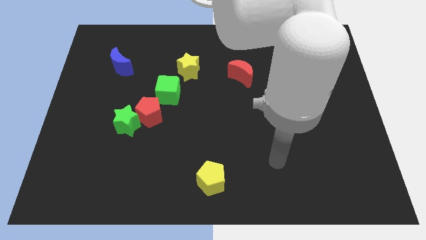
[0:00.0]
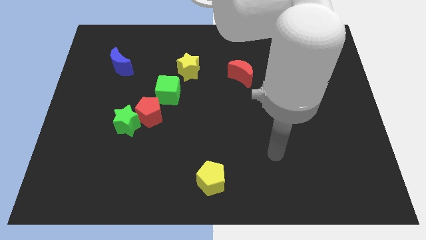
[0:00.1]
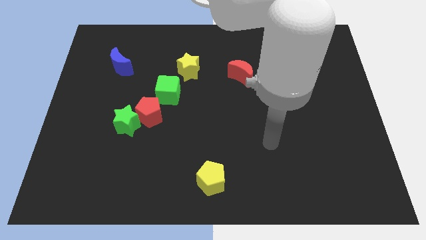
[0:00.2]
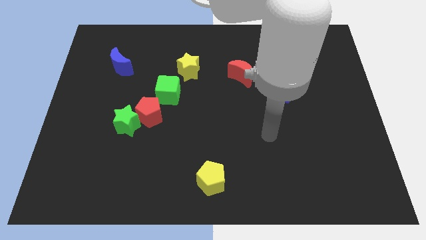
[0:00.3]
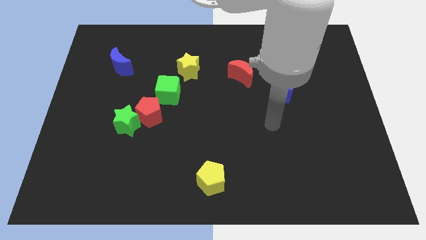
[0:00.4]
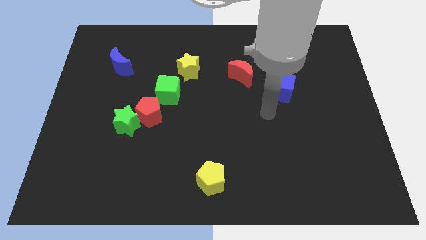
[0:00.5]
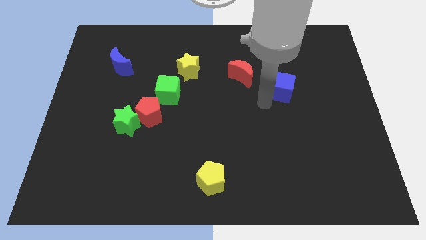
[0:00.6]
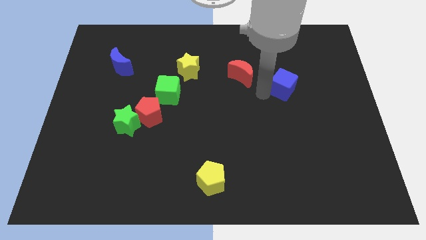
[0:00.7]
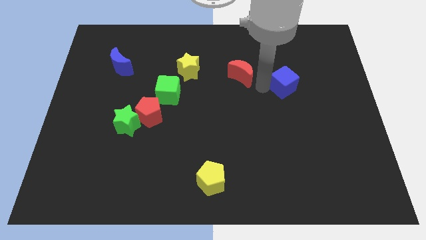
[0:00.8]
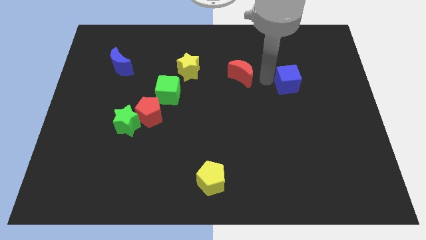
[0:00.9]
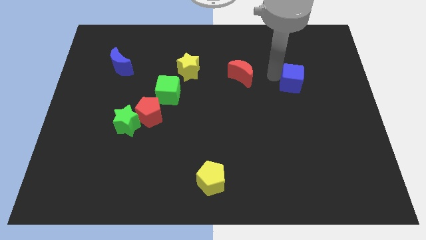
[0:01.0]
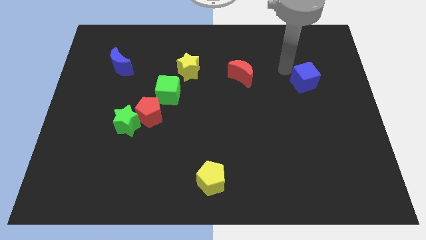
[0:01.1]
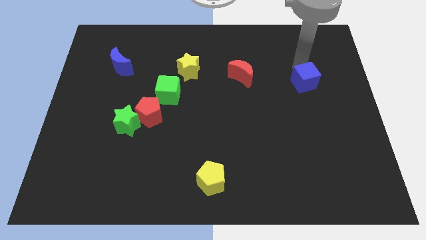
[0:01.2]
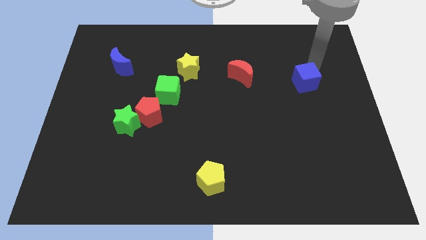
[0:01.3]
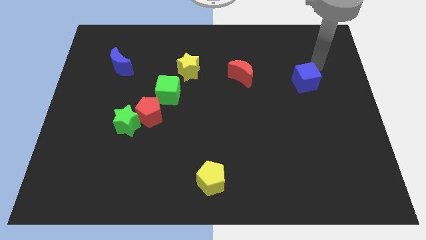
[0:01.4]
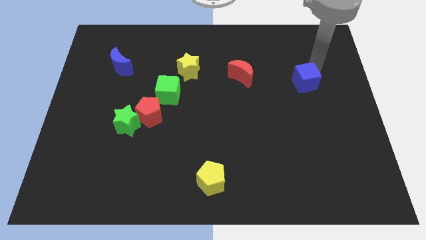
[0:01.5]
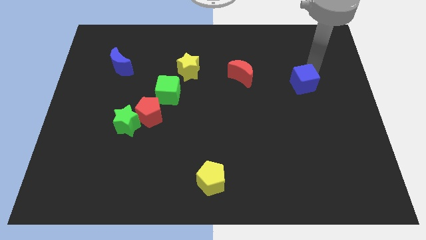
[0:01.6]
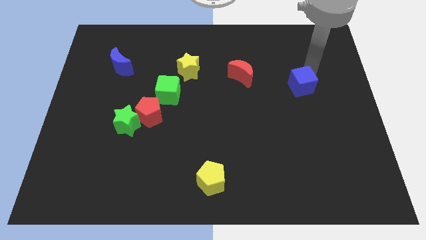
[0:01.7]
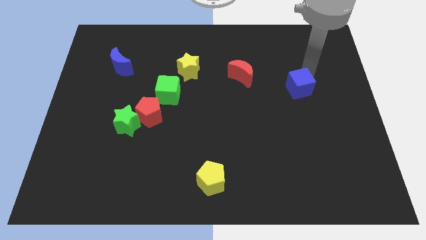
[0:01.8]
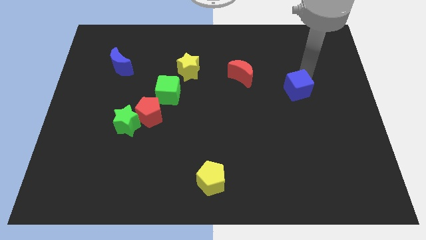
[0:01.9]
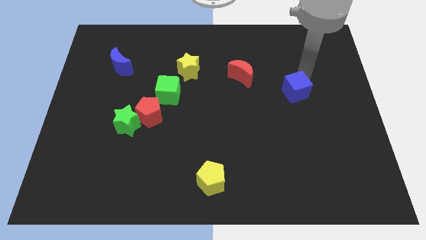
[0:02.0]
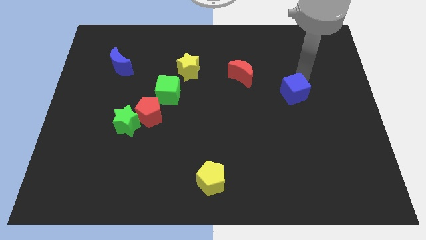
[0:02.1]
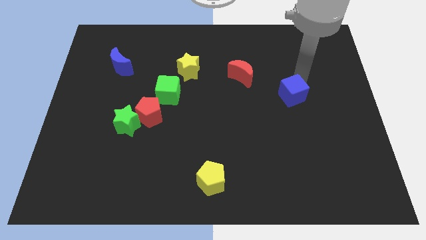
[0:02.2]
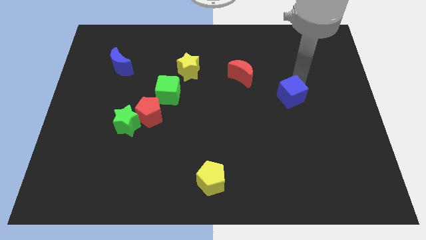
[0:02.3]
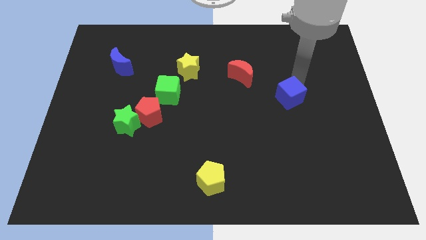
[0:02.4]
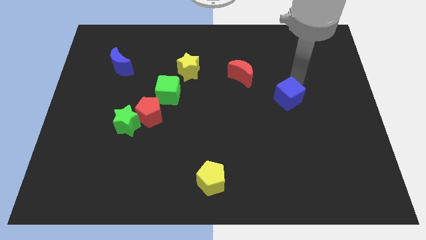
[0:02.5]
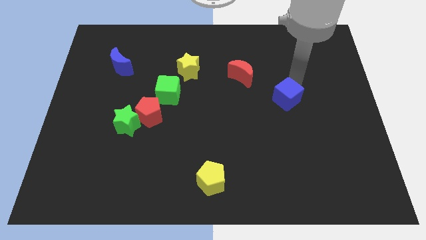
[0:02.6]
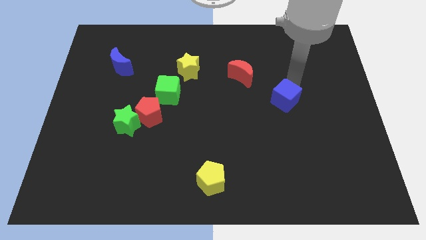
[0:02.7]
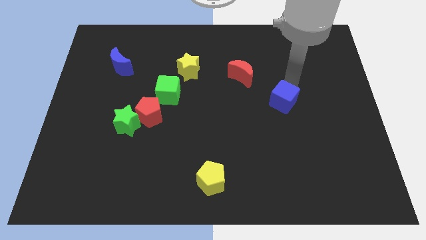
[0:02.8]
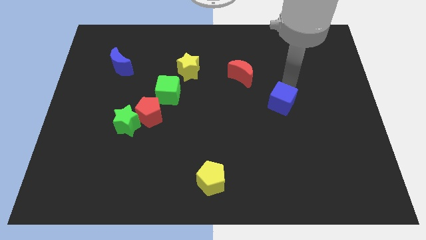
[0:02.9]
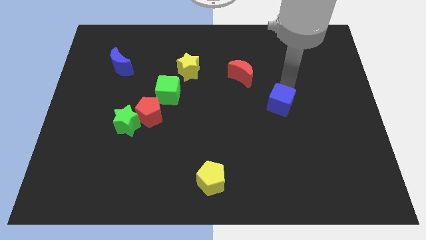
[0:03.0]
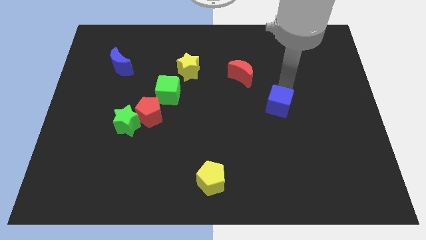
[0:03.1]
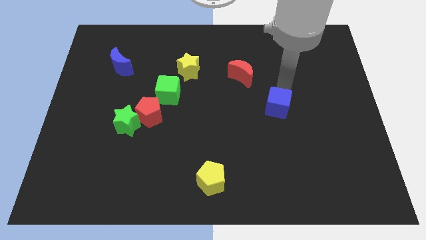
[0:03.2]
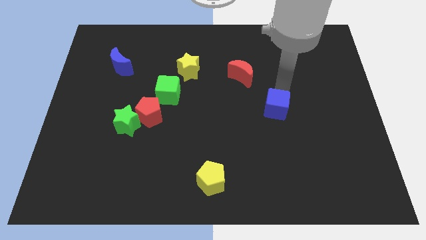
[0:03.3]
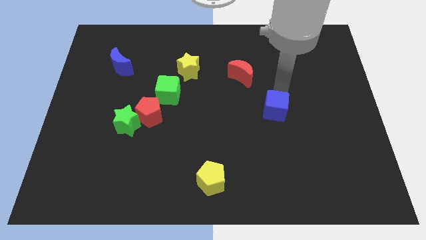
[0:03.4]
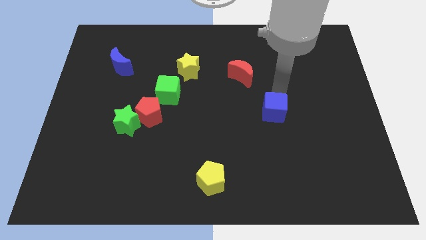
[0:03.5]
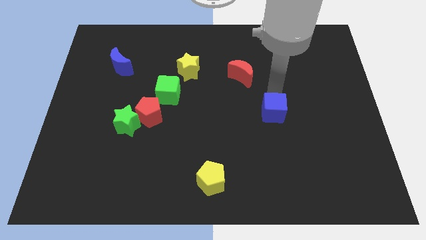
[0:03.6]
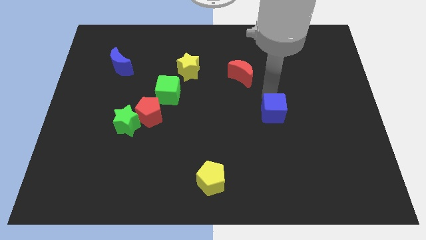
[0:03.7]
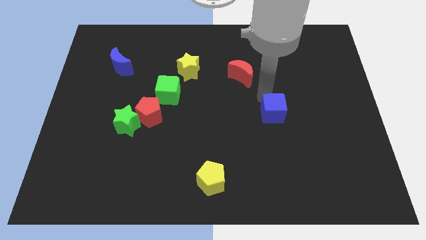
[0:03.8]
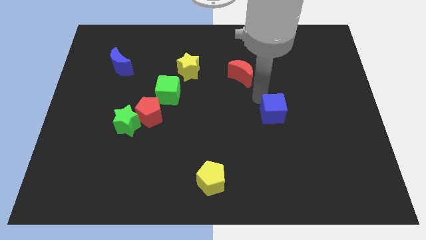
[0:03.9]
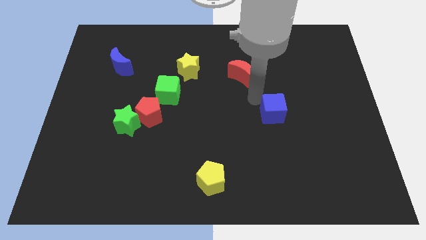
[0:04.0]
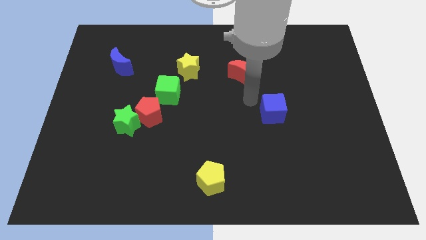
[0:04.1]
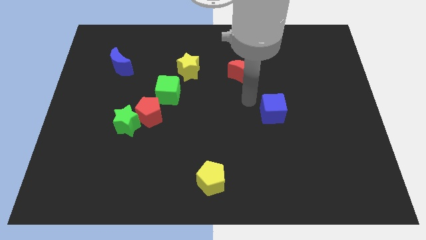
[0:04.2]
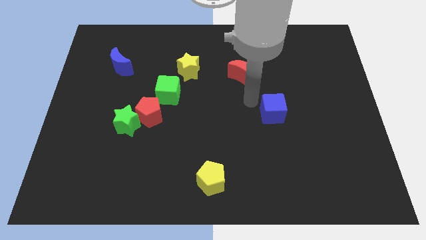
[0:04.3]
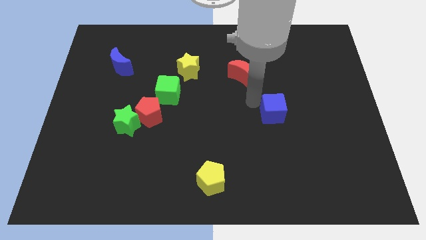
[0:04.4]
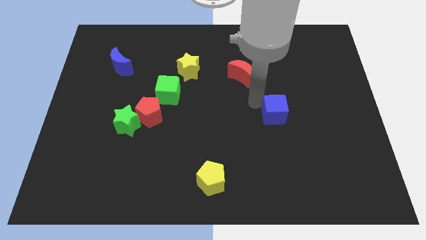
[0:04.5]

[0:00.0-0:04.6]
push the blue cube downwards a bit

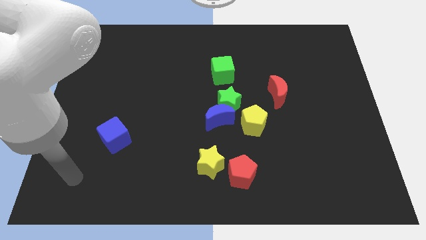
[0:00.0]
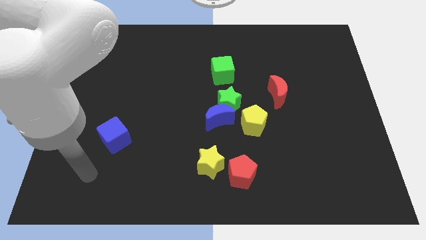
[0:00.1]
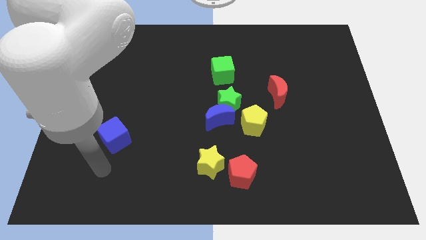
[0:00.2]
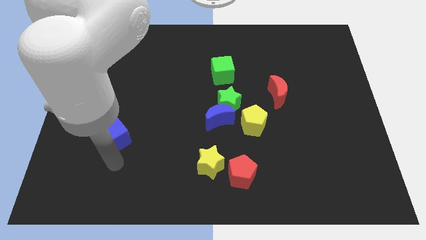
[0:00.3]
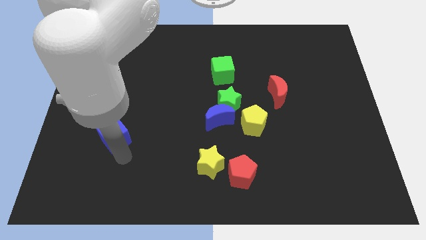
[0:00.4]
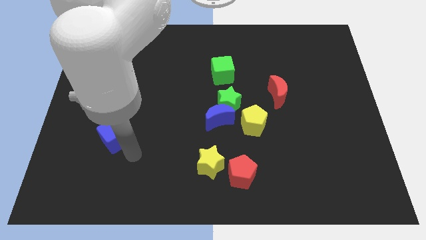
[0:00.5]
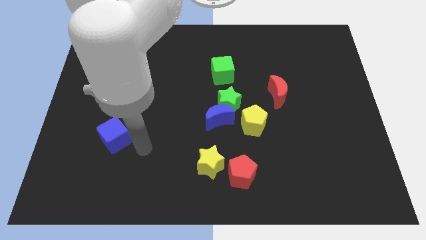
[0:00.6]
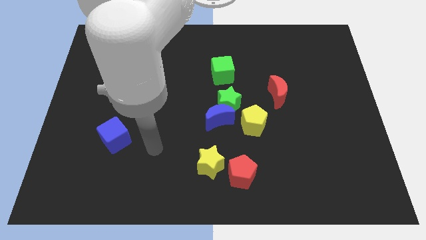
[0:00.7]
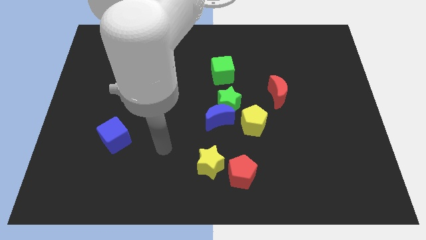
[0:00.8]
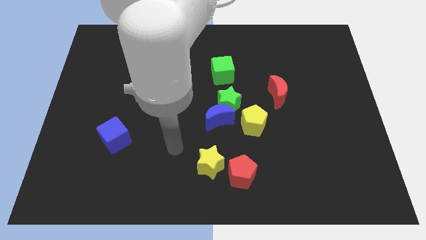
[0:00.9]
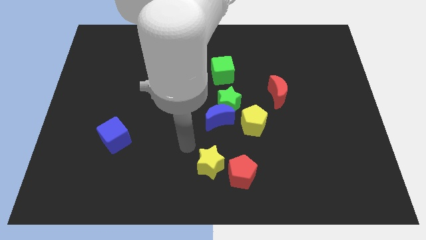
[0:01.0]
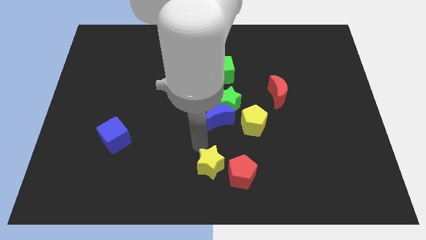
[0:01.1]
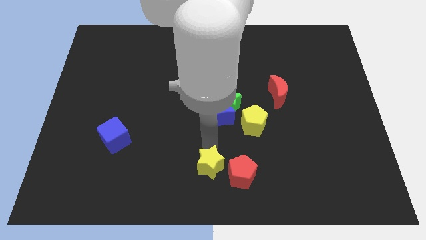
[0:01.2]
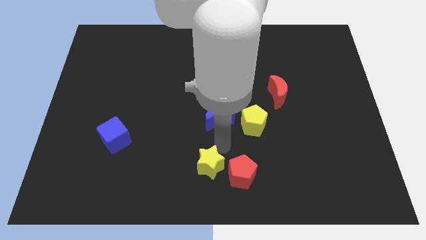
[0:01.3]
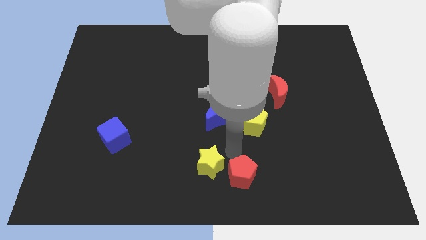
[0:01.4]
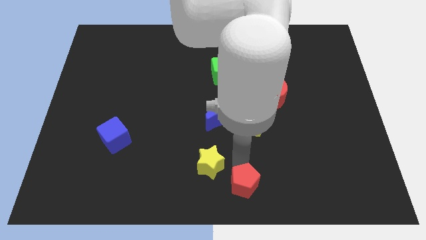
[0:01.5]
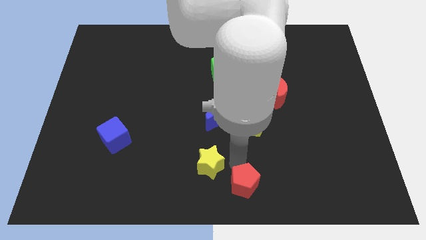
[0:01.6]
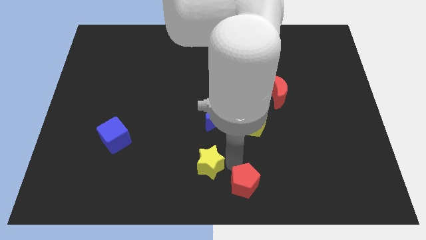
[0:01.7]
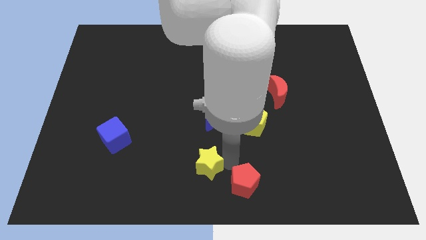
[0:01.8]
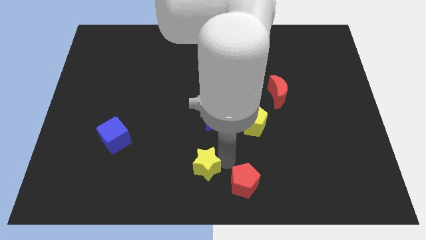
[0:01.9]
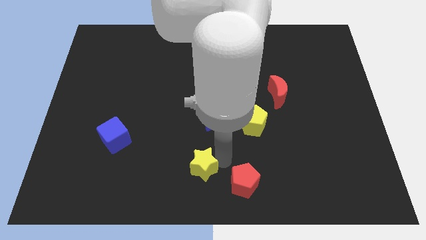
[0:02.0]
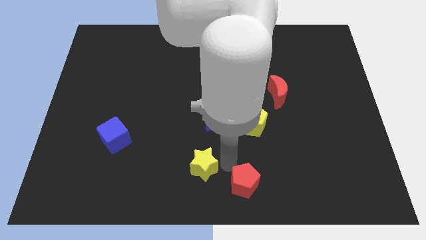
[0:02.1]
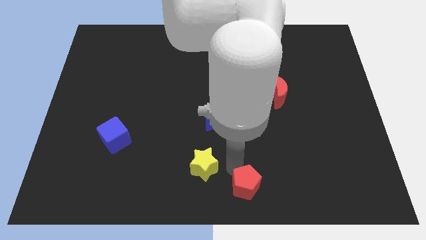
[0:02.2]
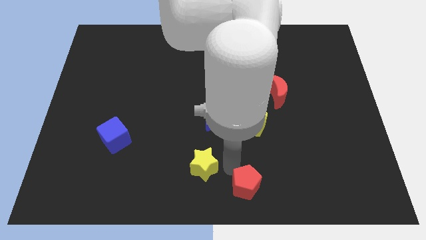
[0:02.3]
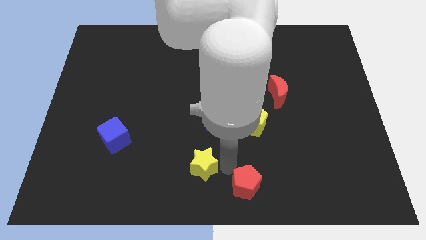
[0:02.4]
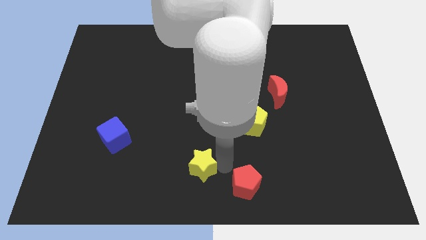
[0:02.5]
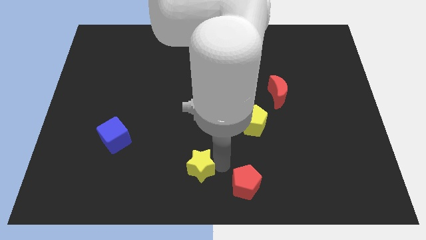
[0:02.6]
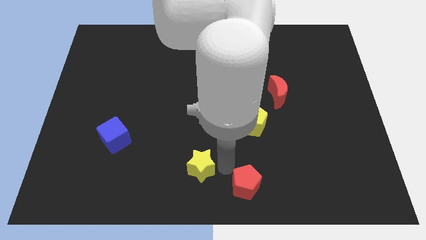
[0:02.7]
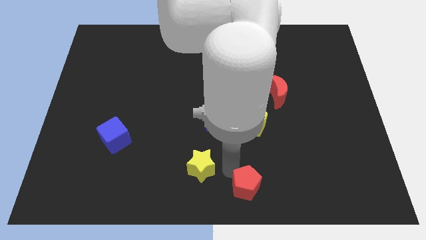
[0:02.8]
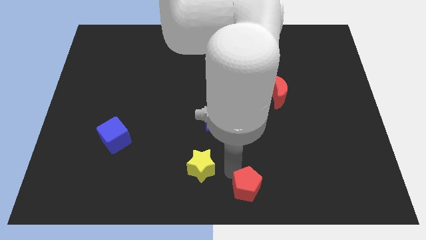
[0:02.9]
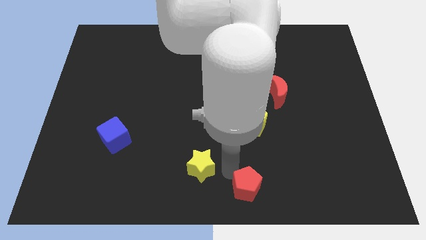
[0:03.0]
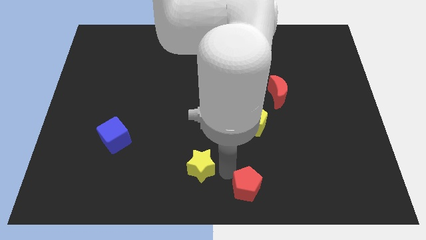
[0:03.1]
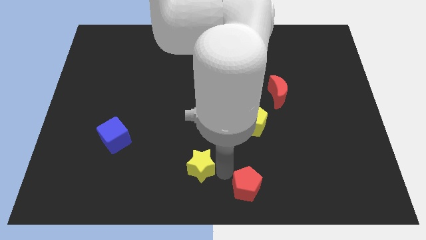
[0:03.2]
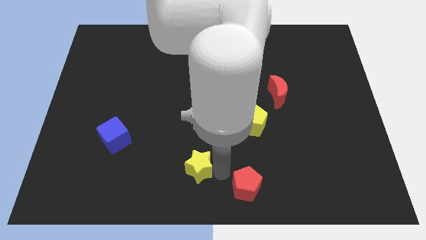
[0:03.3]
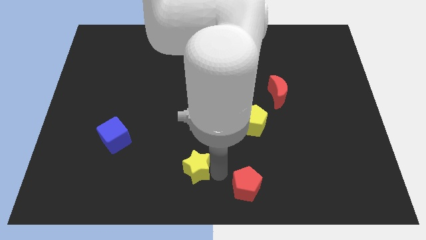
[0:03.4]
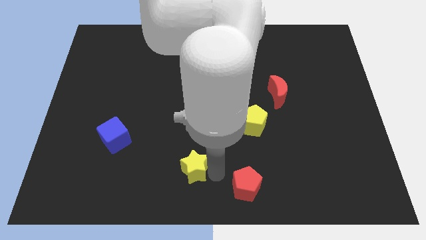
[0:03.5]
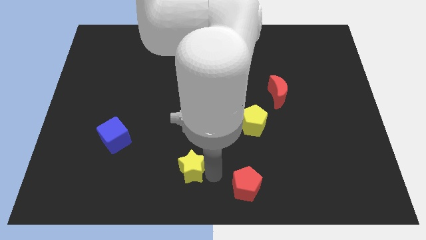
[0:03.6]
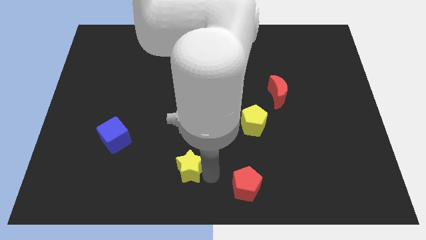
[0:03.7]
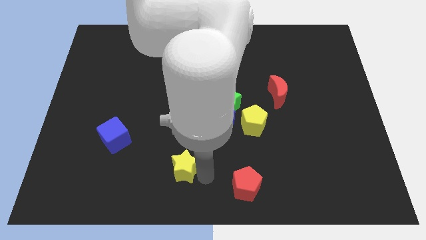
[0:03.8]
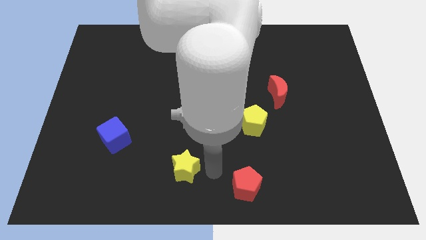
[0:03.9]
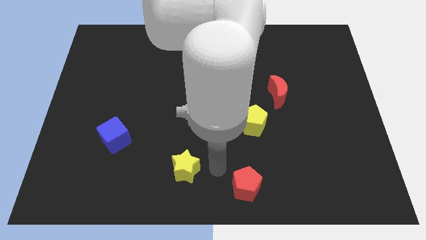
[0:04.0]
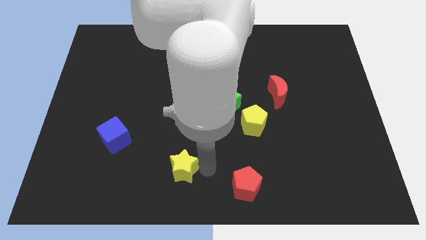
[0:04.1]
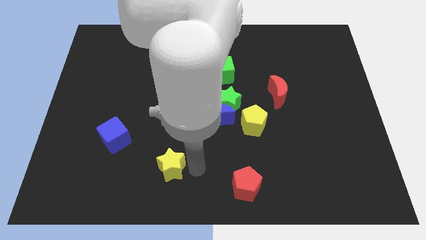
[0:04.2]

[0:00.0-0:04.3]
push the yellow star left slightly
